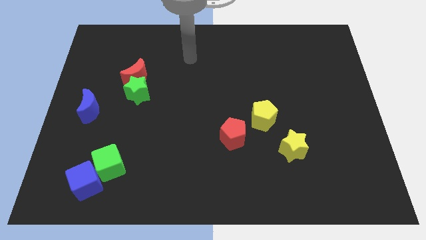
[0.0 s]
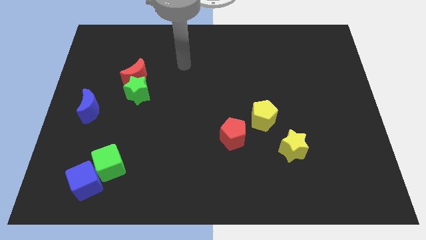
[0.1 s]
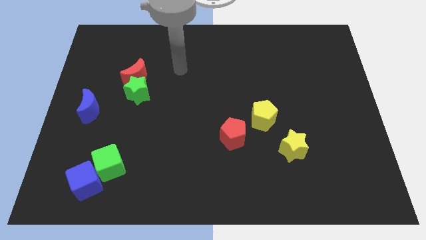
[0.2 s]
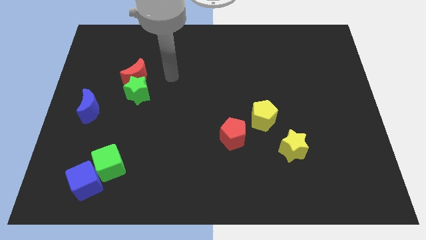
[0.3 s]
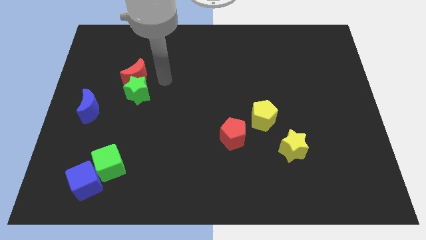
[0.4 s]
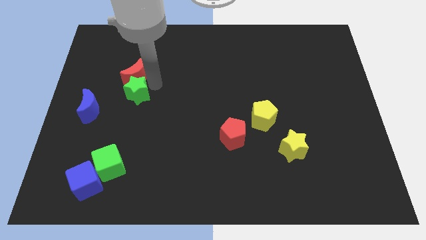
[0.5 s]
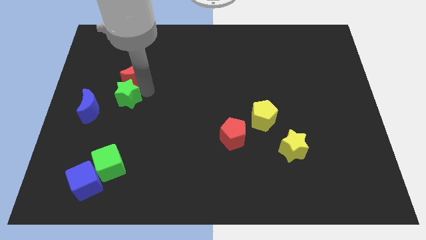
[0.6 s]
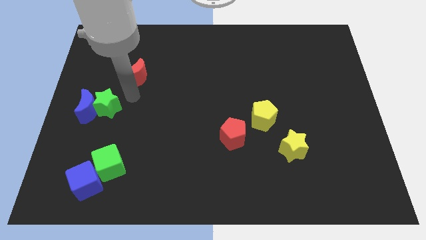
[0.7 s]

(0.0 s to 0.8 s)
pull the red moon apart from the green star

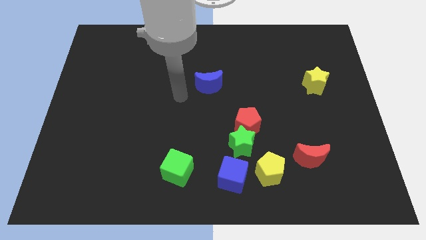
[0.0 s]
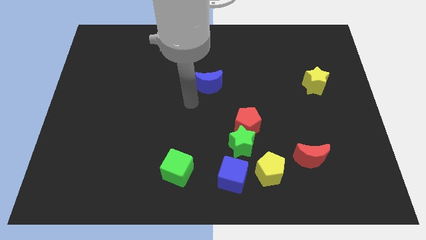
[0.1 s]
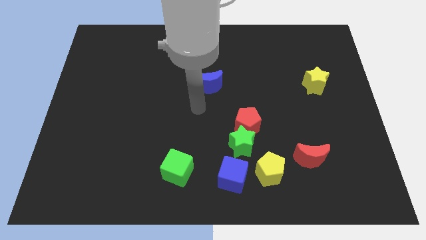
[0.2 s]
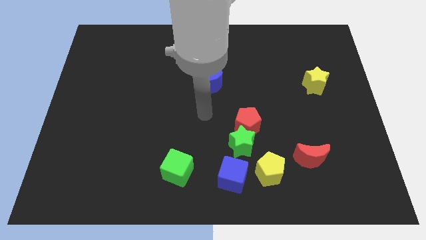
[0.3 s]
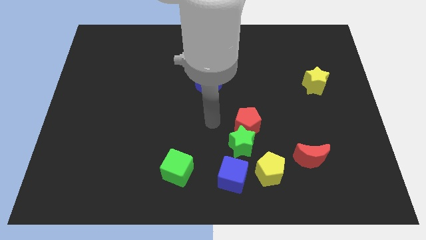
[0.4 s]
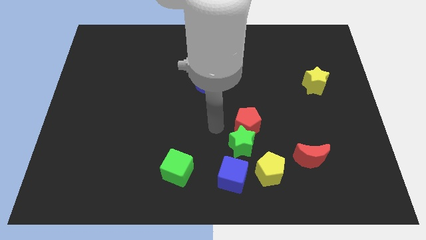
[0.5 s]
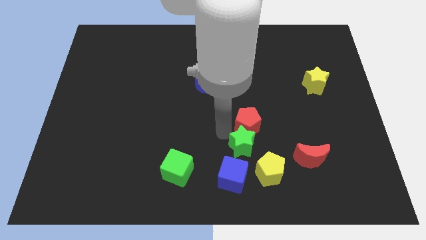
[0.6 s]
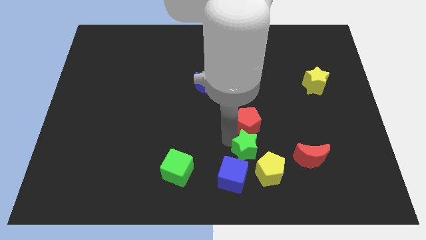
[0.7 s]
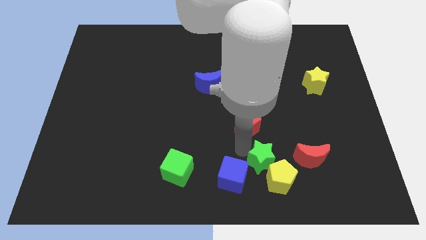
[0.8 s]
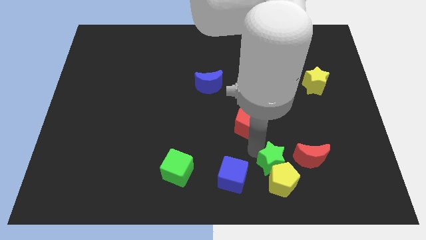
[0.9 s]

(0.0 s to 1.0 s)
separate the red pentagon from the green star

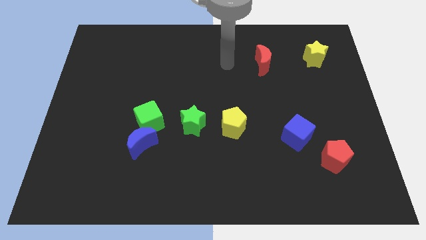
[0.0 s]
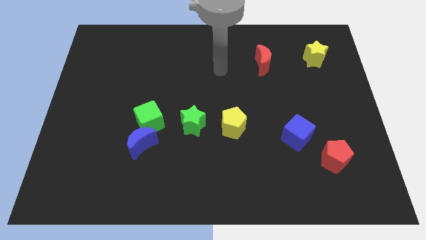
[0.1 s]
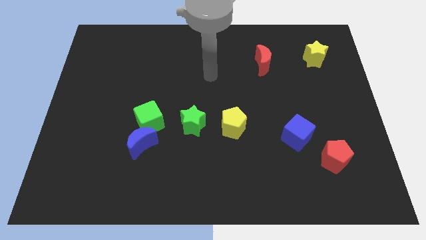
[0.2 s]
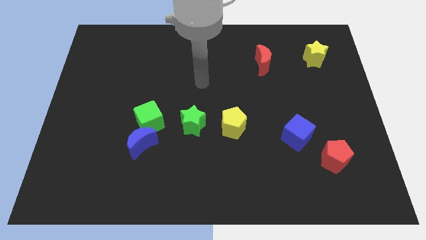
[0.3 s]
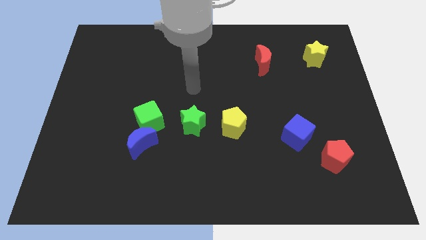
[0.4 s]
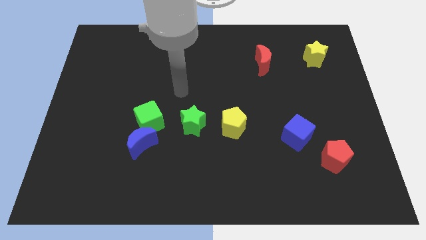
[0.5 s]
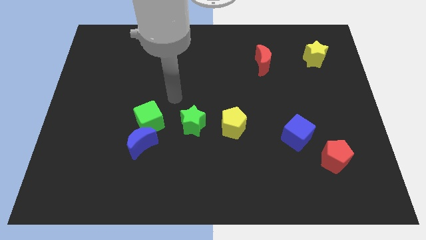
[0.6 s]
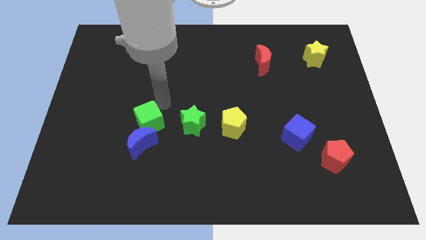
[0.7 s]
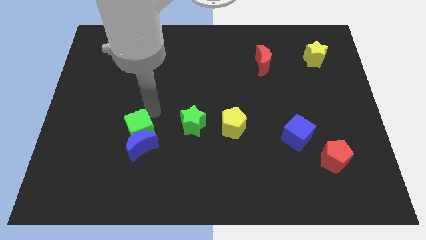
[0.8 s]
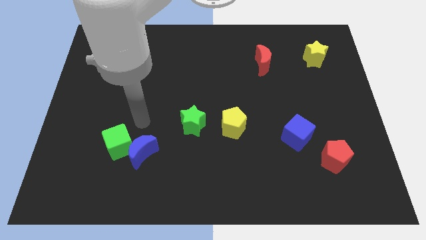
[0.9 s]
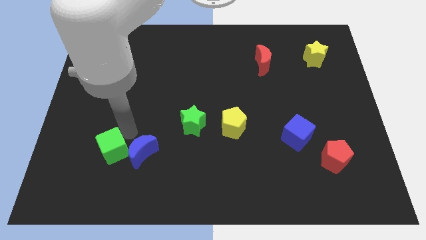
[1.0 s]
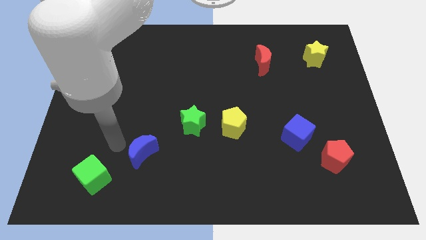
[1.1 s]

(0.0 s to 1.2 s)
pull the blue moon apart from the green cube

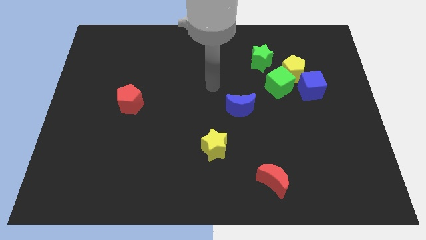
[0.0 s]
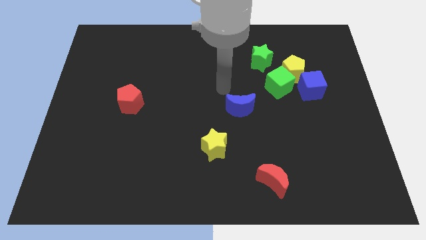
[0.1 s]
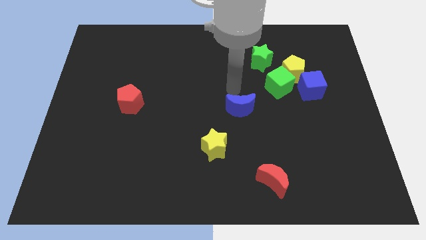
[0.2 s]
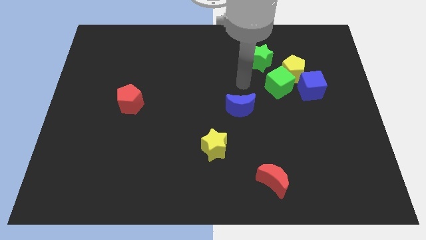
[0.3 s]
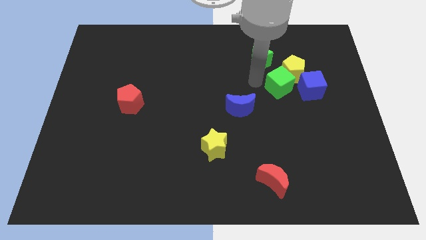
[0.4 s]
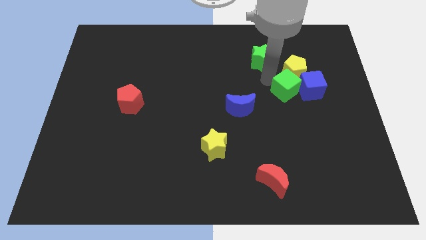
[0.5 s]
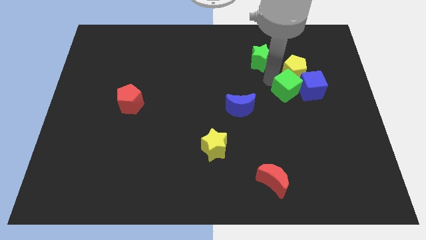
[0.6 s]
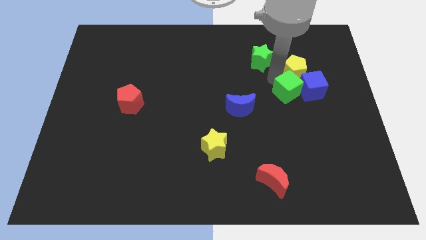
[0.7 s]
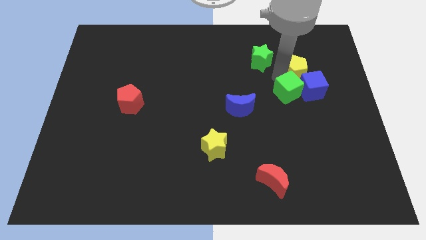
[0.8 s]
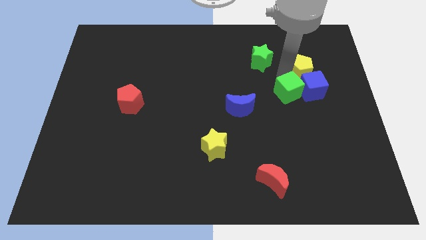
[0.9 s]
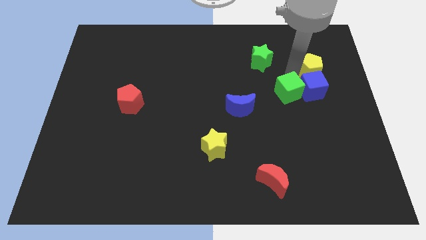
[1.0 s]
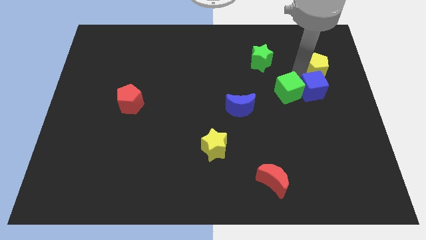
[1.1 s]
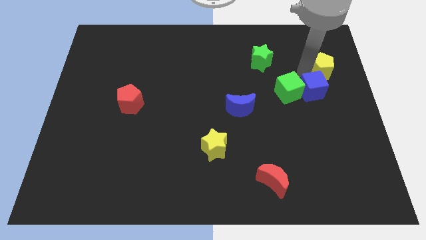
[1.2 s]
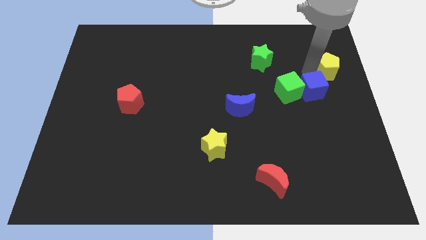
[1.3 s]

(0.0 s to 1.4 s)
separate the yellow pentagon from the group

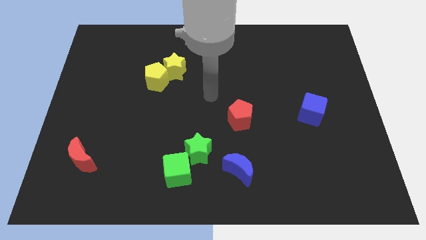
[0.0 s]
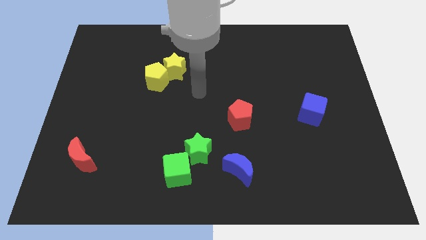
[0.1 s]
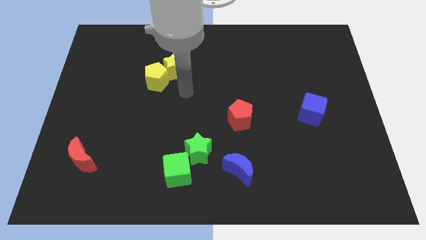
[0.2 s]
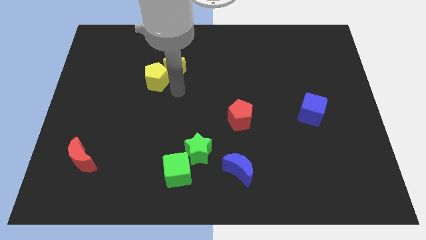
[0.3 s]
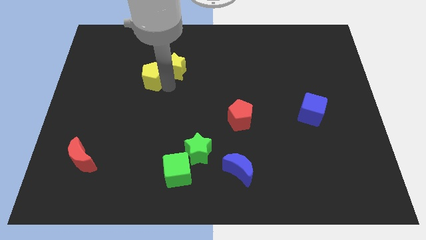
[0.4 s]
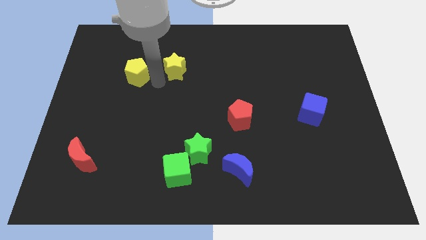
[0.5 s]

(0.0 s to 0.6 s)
move the yellow star away from the yellow pentagon

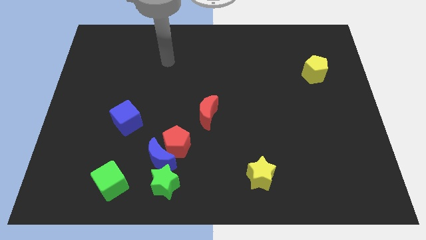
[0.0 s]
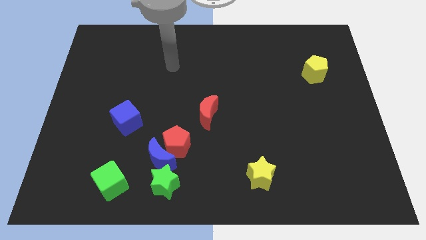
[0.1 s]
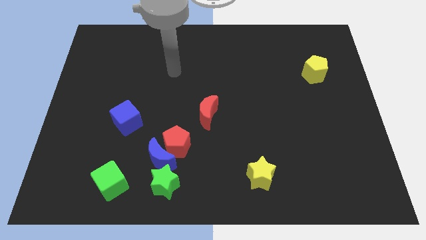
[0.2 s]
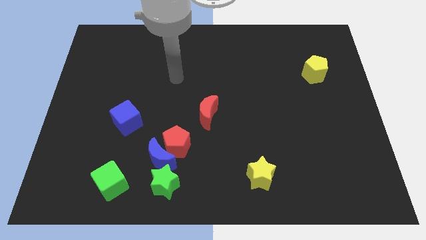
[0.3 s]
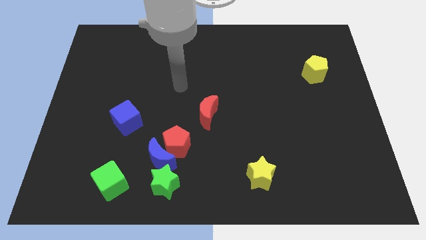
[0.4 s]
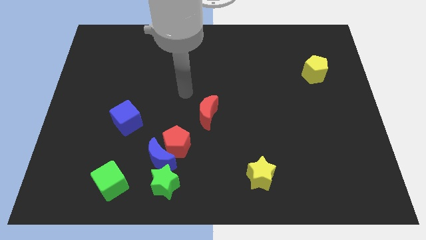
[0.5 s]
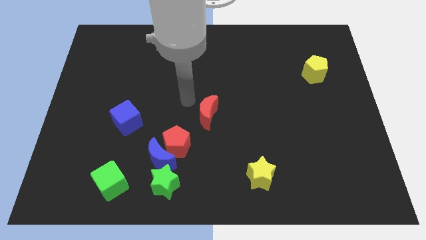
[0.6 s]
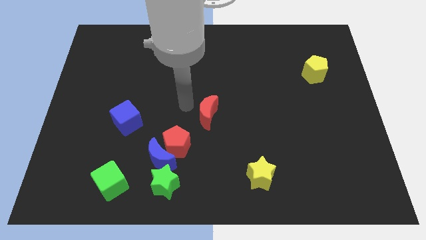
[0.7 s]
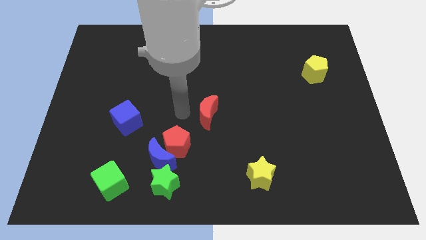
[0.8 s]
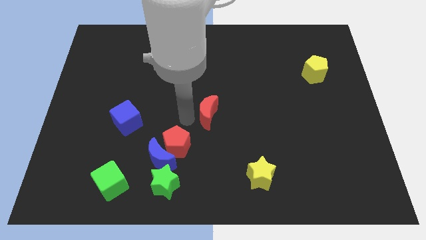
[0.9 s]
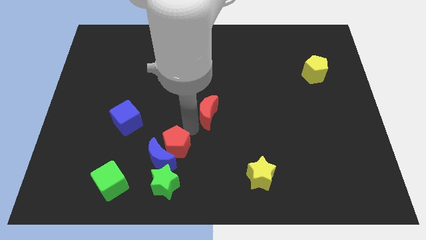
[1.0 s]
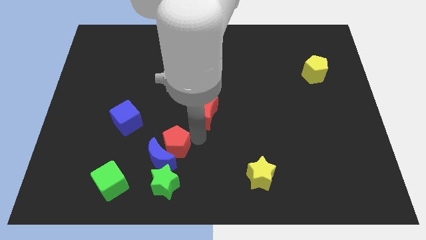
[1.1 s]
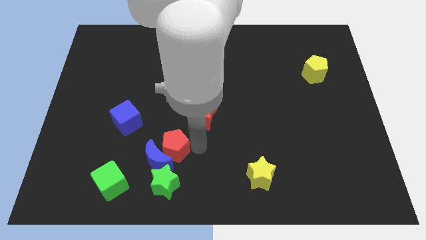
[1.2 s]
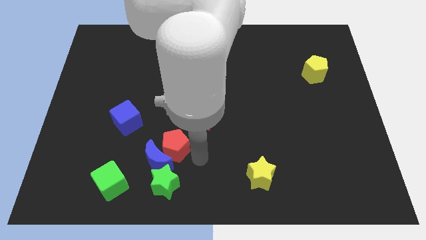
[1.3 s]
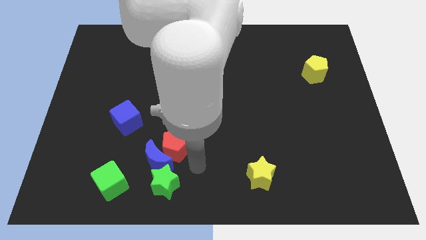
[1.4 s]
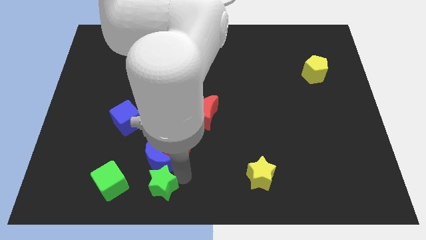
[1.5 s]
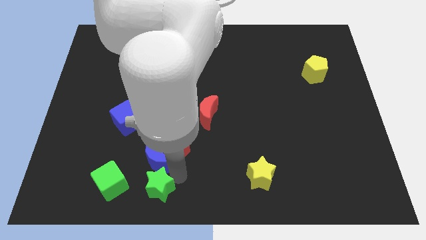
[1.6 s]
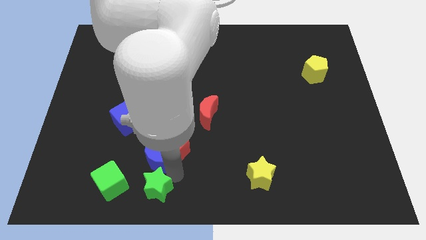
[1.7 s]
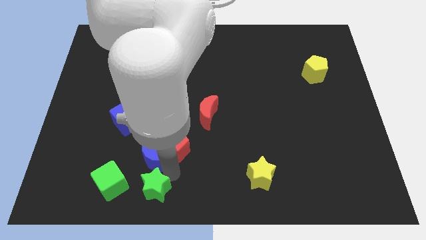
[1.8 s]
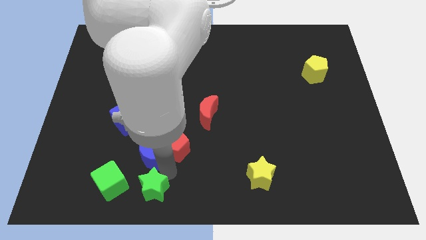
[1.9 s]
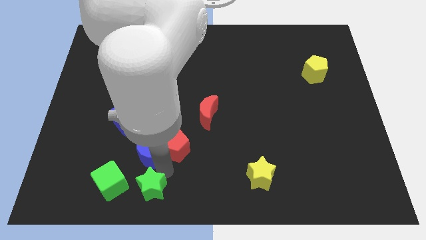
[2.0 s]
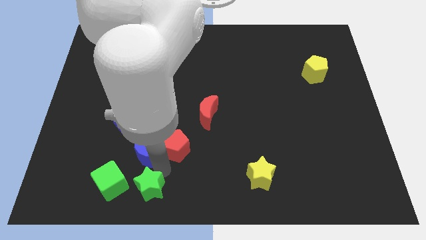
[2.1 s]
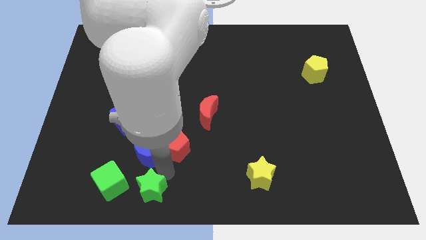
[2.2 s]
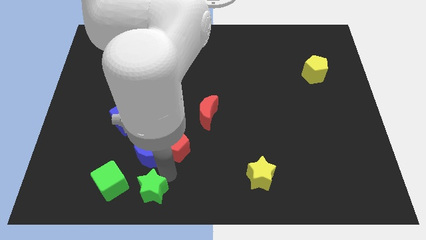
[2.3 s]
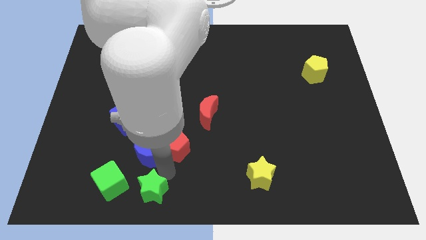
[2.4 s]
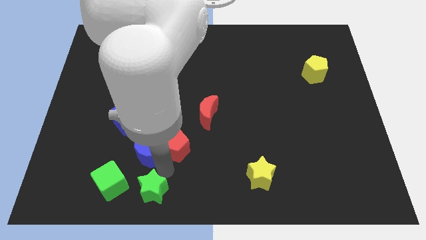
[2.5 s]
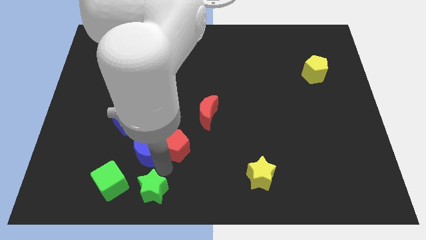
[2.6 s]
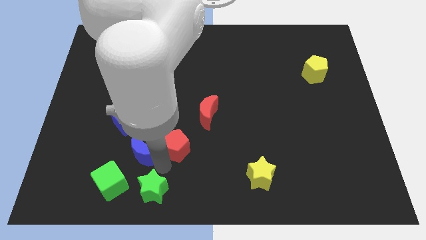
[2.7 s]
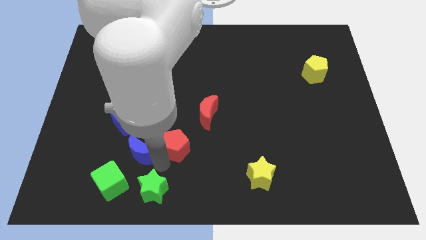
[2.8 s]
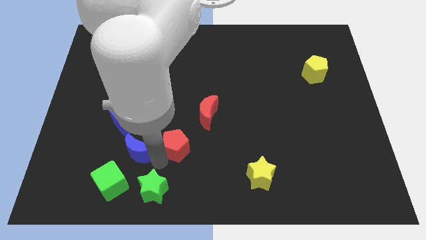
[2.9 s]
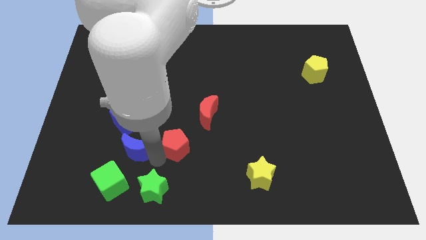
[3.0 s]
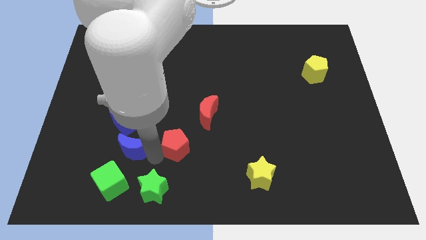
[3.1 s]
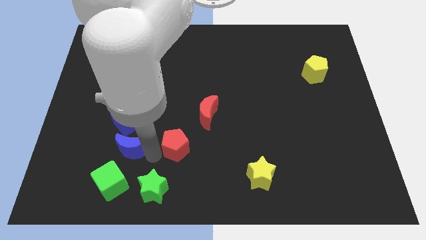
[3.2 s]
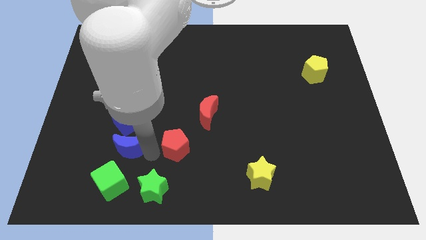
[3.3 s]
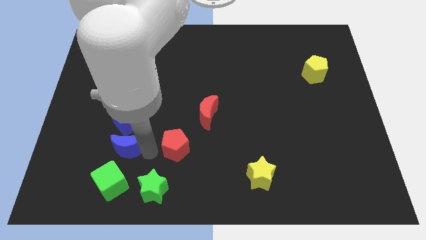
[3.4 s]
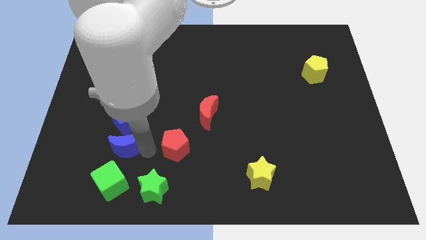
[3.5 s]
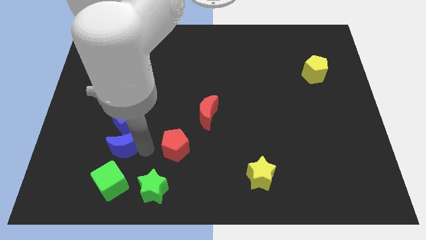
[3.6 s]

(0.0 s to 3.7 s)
separate the blue moon from the red pentagon and green star

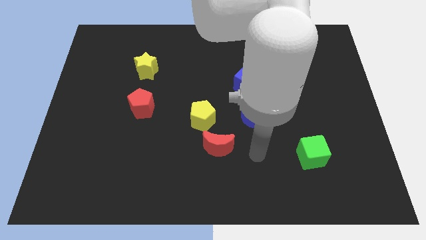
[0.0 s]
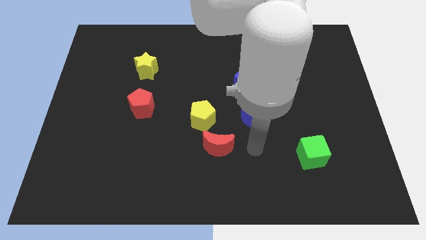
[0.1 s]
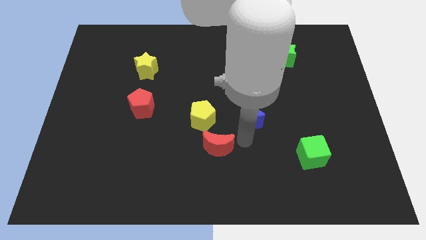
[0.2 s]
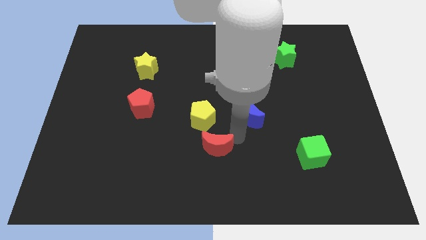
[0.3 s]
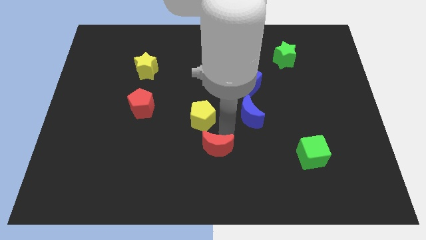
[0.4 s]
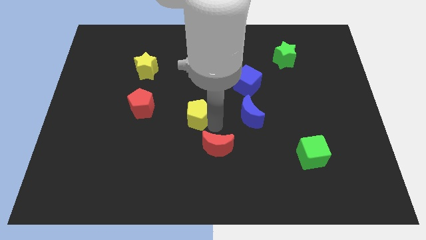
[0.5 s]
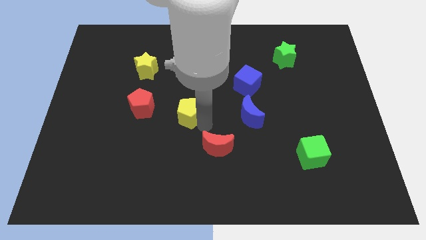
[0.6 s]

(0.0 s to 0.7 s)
move the red moon away from the yellow pentagon

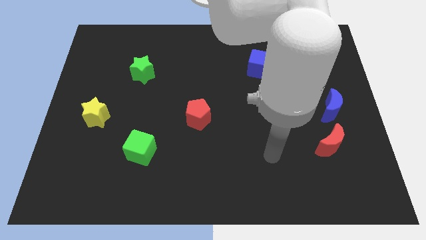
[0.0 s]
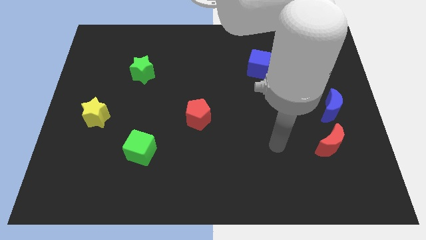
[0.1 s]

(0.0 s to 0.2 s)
separate the red moon from the blue moon
